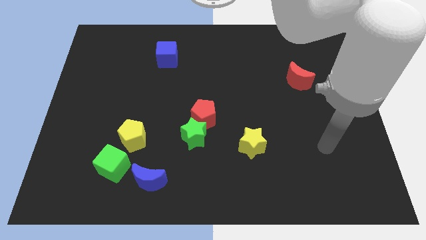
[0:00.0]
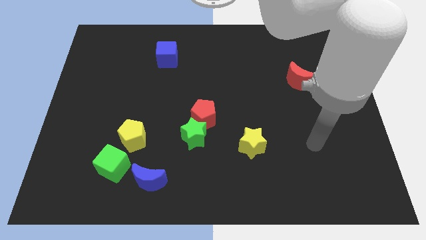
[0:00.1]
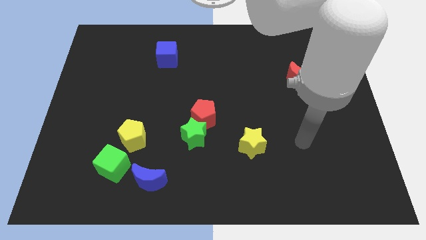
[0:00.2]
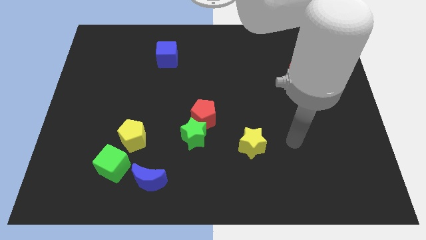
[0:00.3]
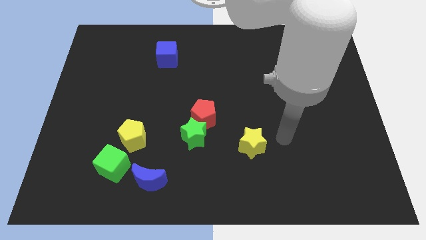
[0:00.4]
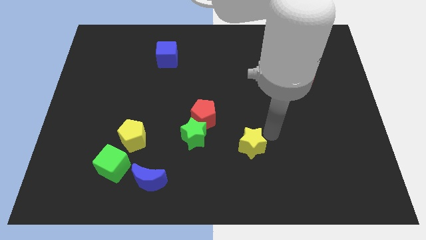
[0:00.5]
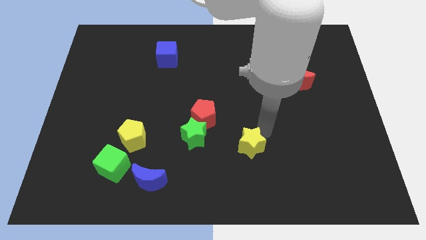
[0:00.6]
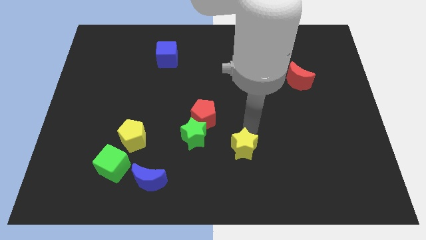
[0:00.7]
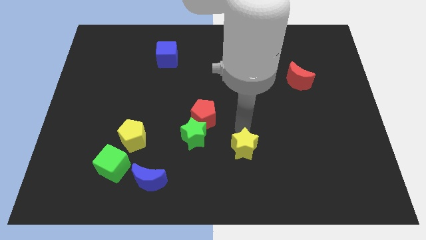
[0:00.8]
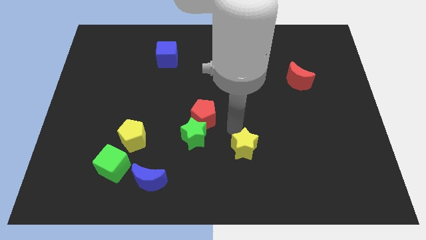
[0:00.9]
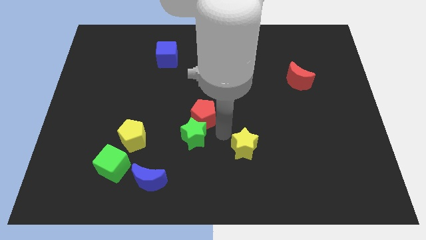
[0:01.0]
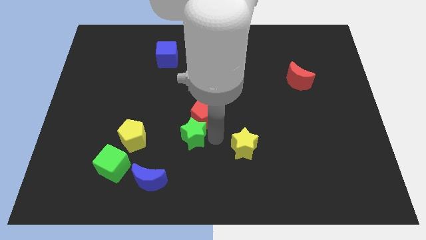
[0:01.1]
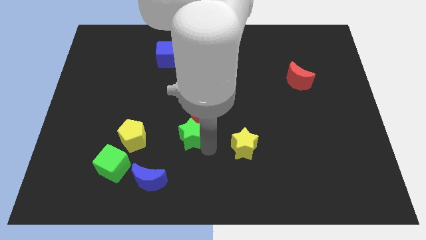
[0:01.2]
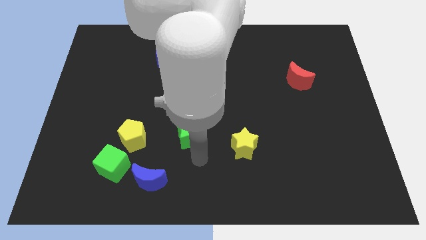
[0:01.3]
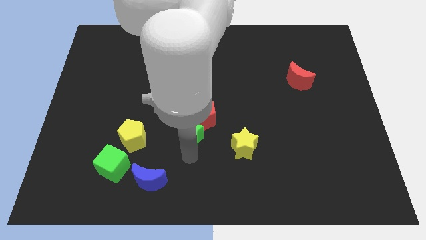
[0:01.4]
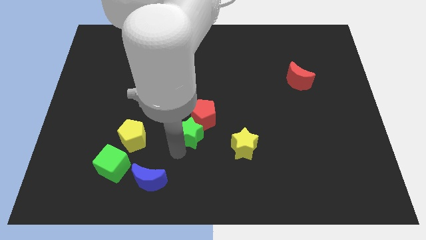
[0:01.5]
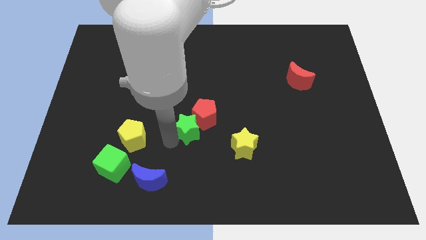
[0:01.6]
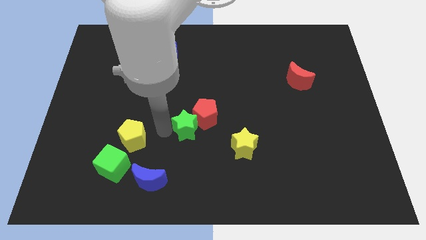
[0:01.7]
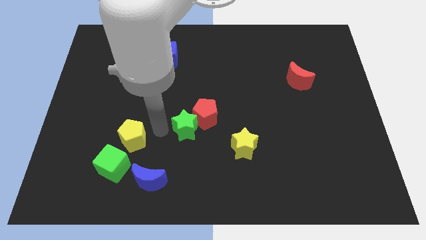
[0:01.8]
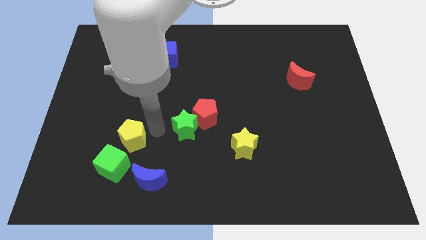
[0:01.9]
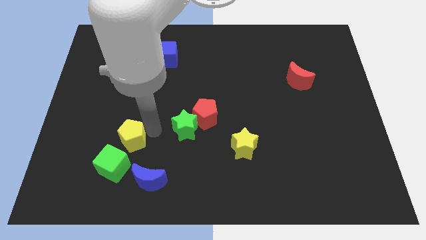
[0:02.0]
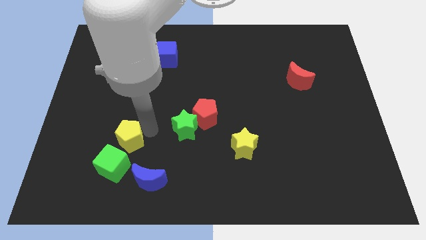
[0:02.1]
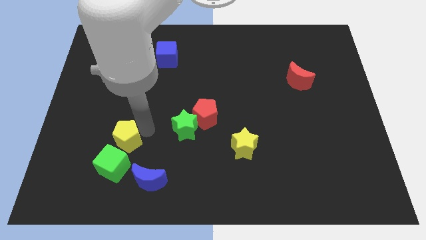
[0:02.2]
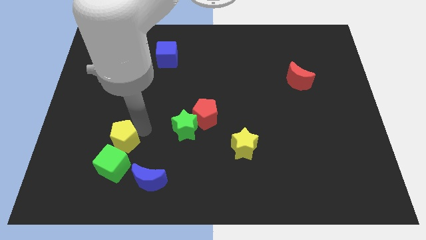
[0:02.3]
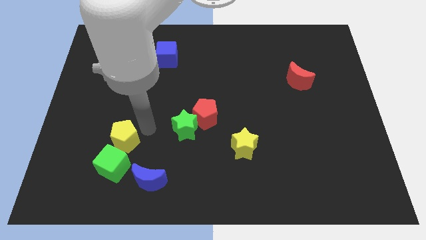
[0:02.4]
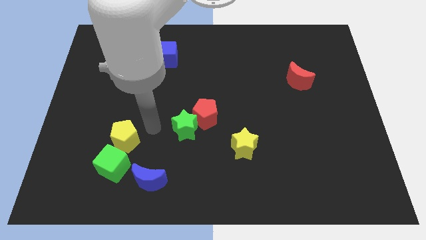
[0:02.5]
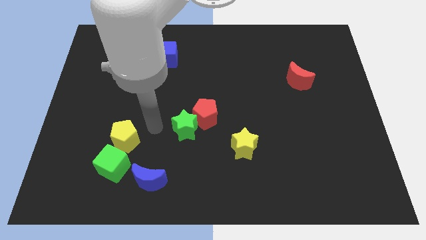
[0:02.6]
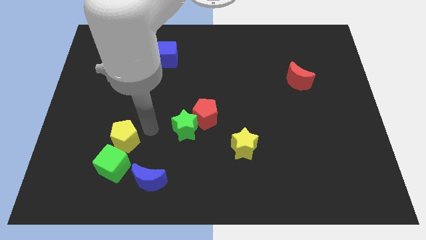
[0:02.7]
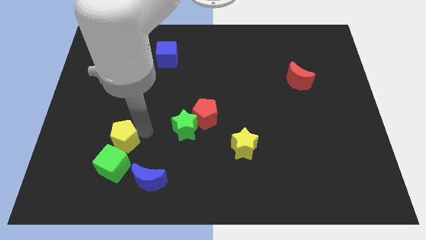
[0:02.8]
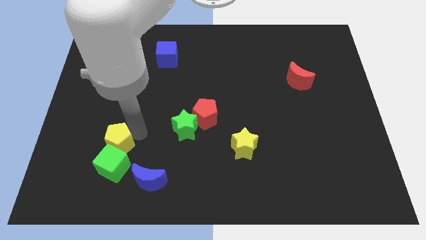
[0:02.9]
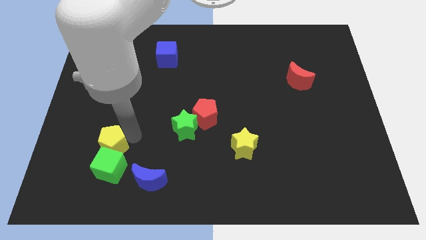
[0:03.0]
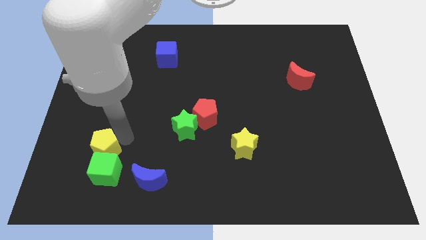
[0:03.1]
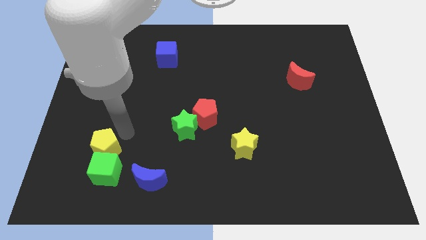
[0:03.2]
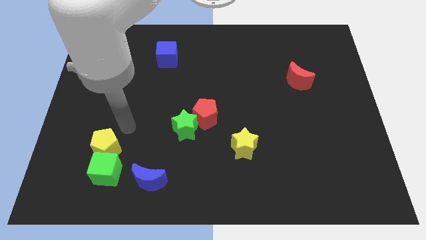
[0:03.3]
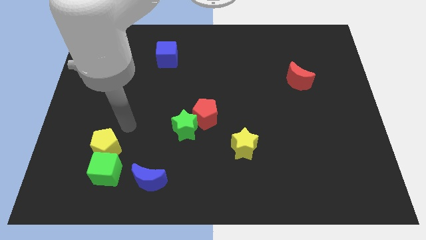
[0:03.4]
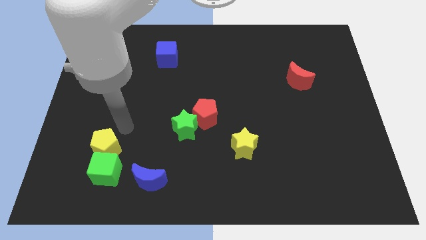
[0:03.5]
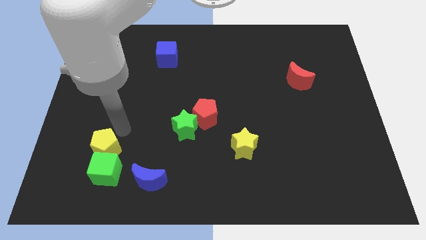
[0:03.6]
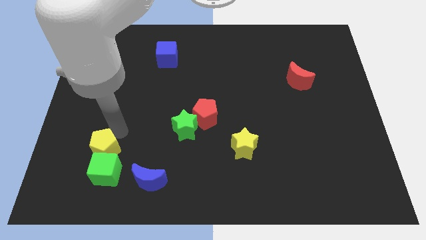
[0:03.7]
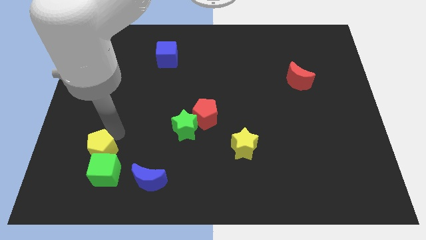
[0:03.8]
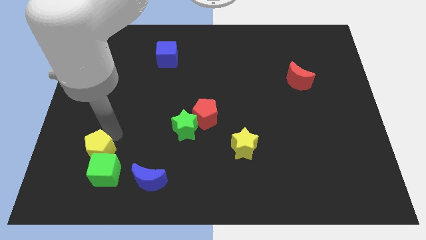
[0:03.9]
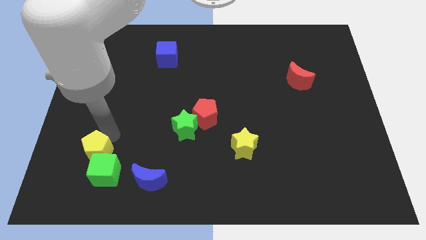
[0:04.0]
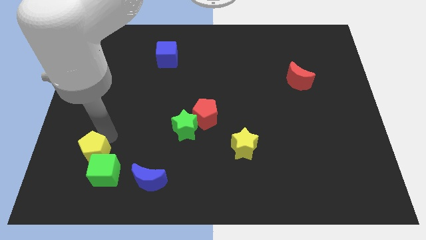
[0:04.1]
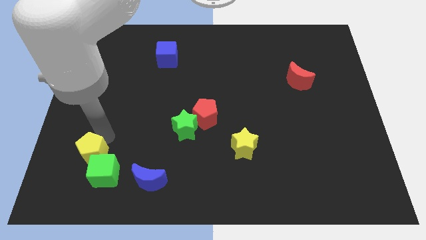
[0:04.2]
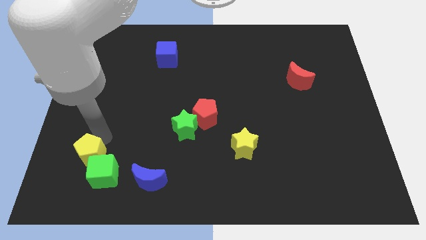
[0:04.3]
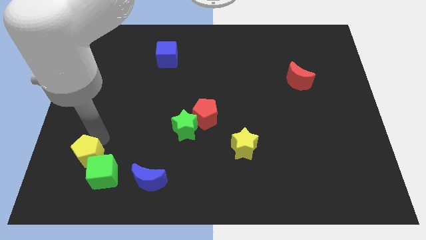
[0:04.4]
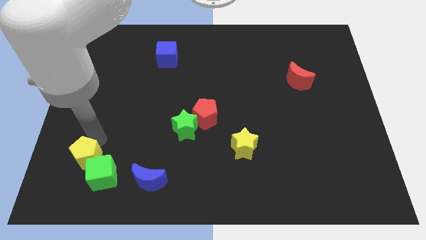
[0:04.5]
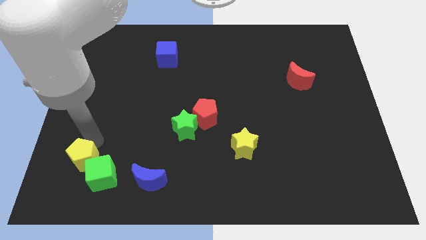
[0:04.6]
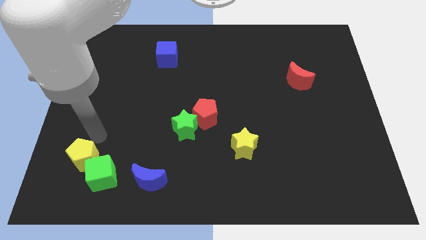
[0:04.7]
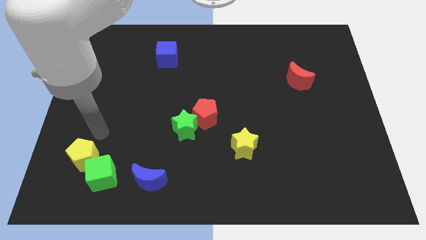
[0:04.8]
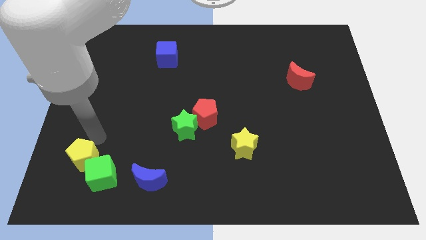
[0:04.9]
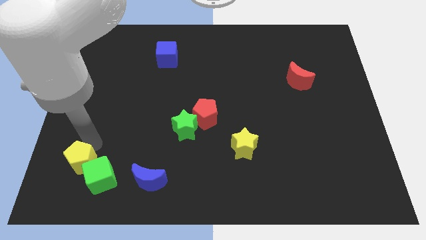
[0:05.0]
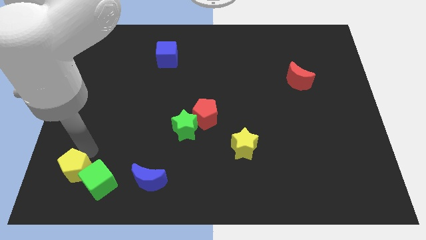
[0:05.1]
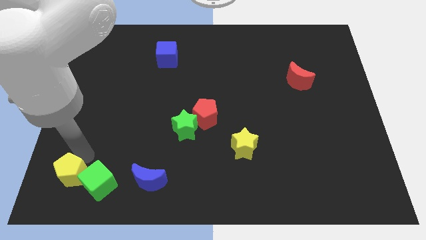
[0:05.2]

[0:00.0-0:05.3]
put the yellow pentagon to the bottom left corner
